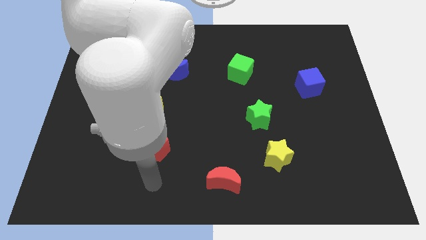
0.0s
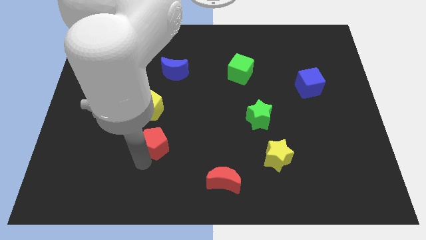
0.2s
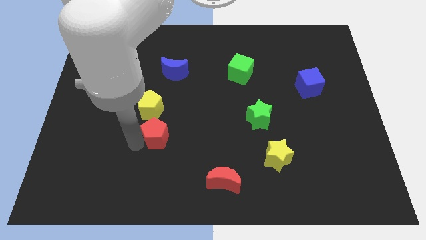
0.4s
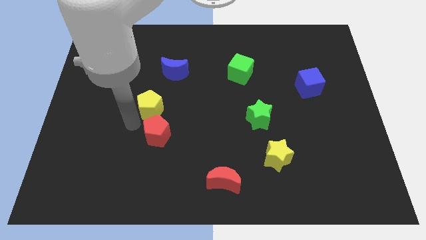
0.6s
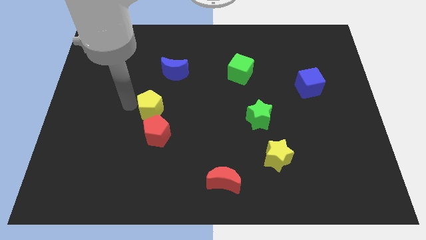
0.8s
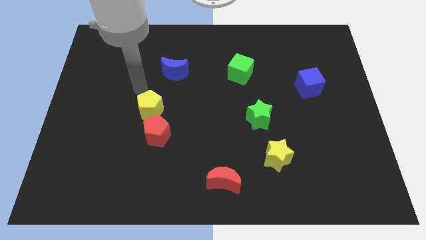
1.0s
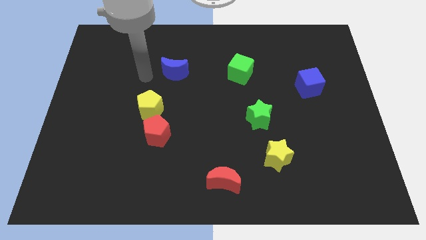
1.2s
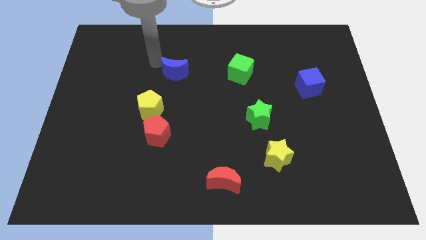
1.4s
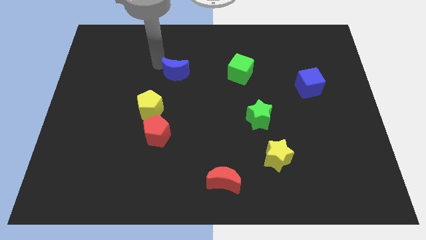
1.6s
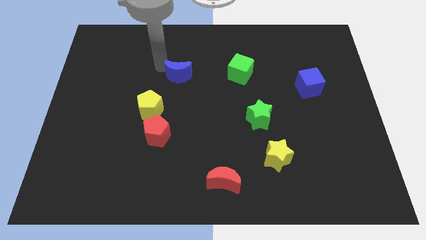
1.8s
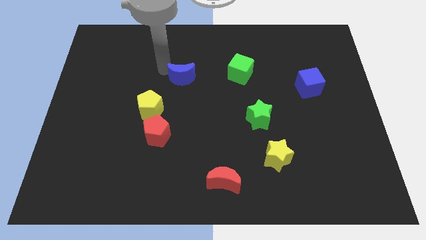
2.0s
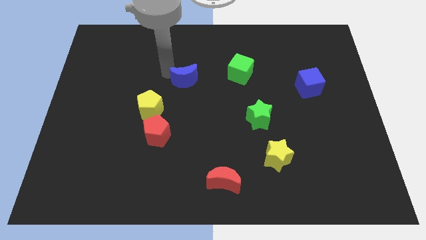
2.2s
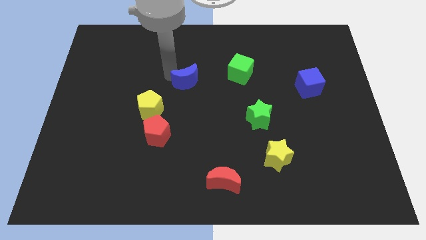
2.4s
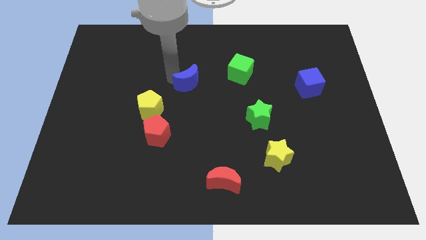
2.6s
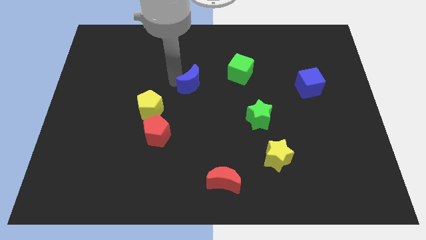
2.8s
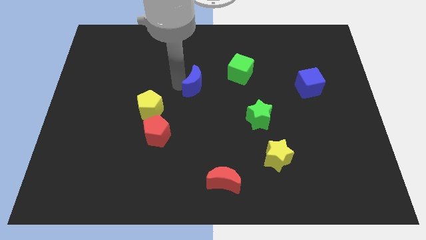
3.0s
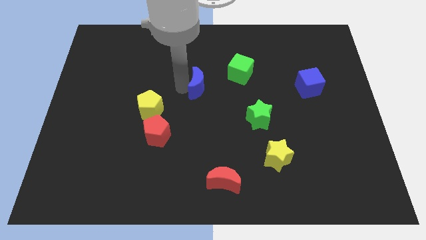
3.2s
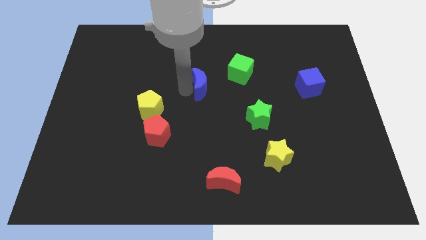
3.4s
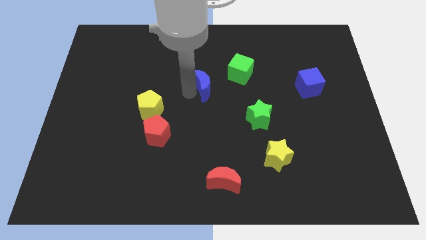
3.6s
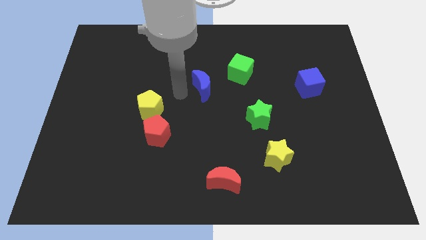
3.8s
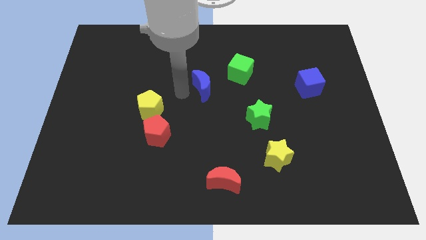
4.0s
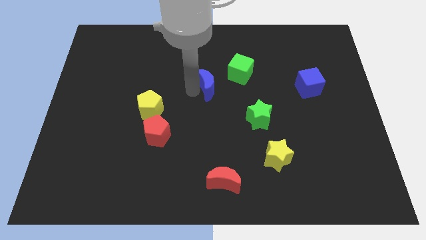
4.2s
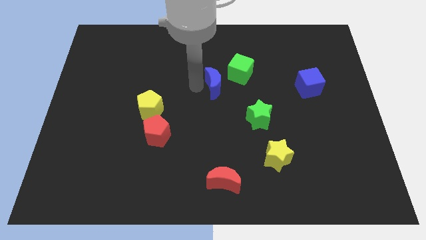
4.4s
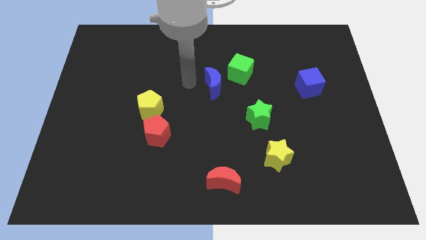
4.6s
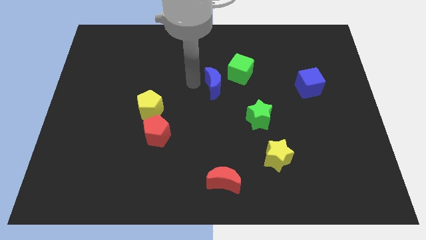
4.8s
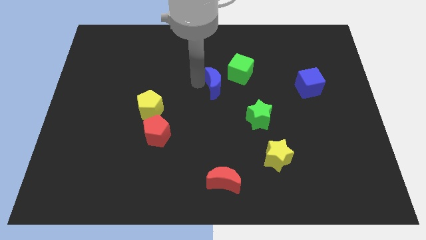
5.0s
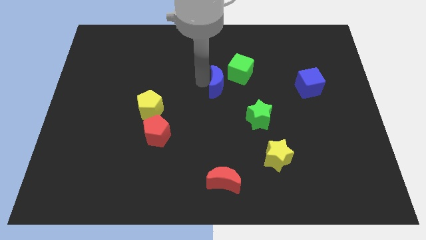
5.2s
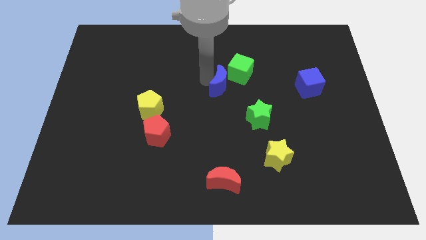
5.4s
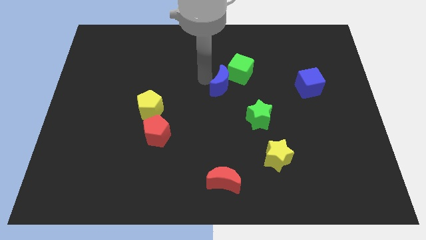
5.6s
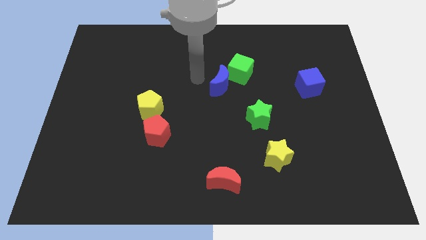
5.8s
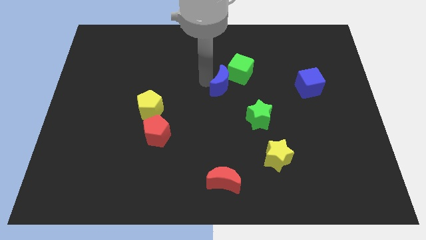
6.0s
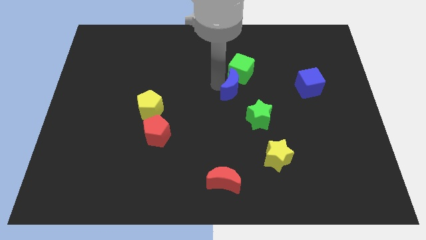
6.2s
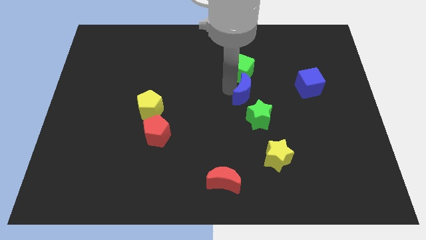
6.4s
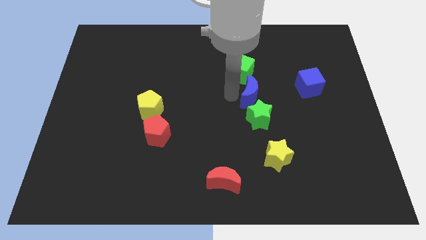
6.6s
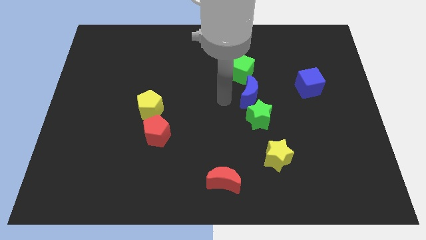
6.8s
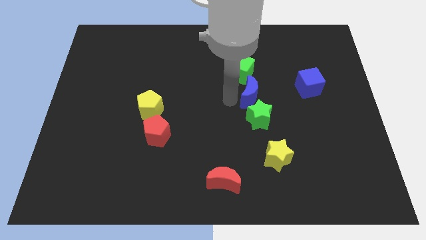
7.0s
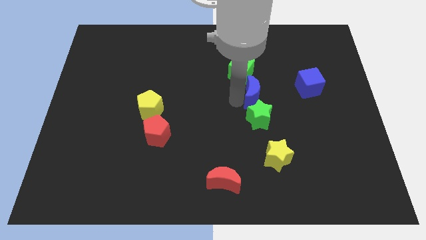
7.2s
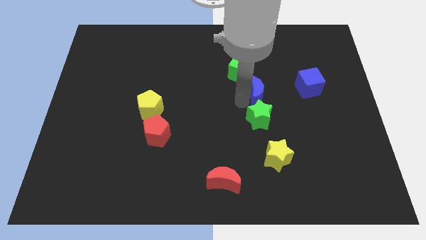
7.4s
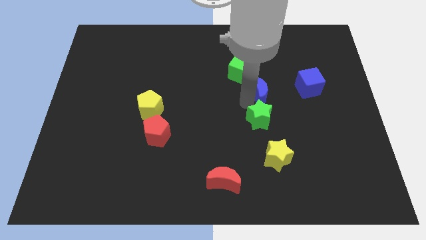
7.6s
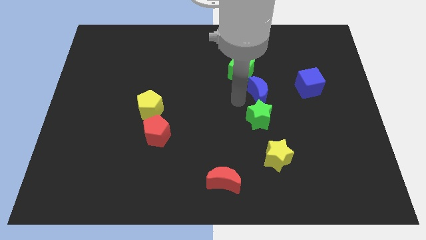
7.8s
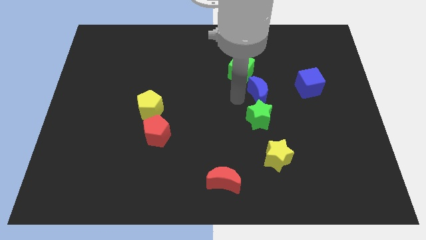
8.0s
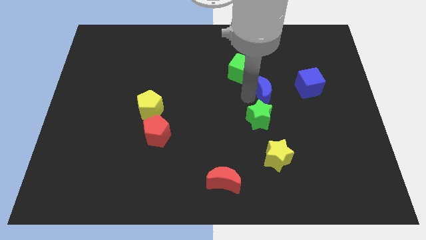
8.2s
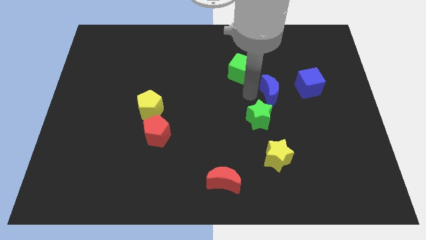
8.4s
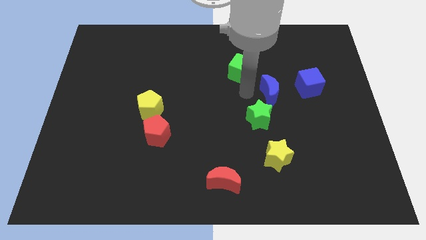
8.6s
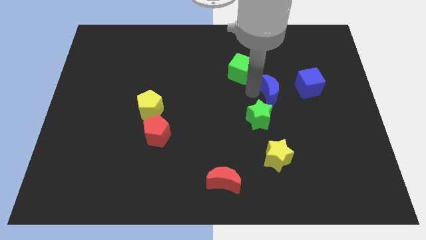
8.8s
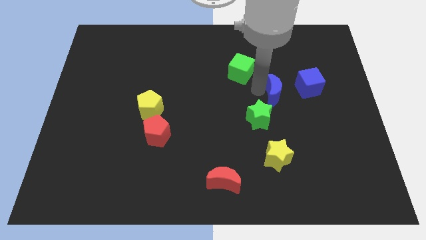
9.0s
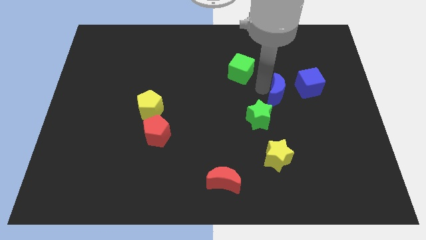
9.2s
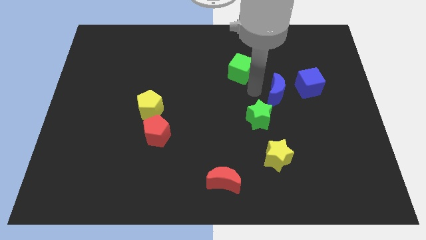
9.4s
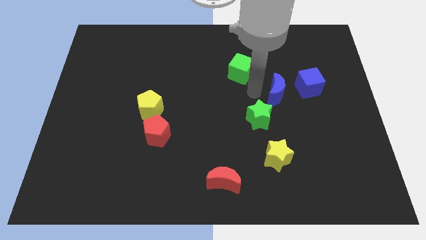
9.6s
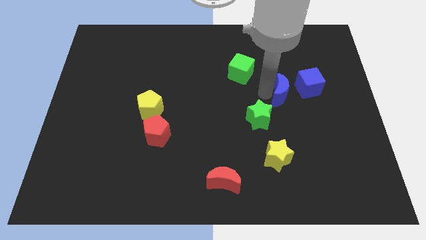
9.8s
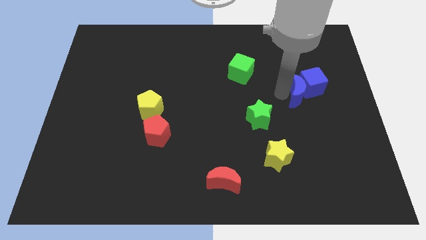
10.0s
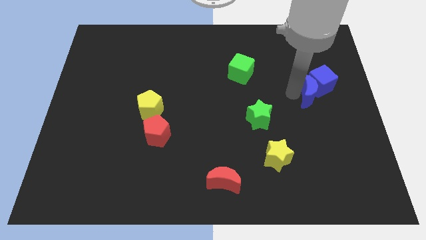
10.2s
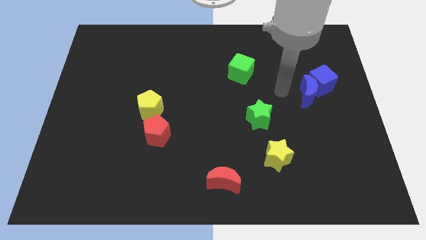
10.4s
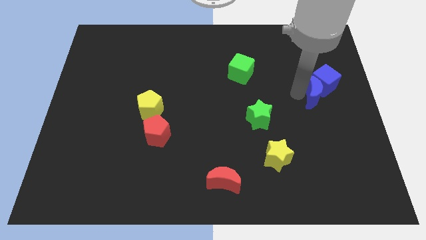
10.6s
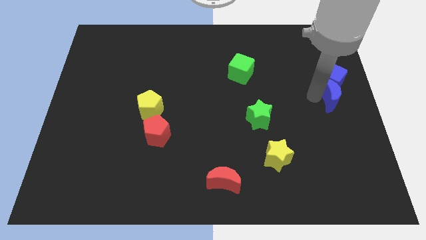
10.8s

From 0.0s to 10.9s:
slide the blue moon to the bottom right side of the blue cube

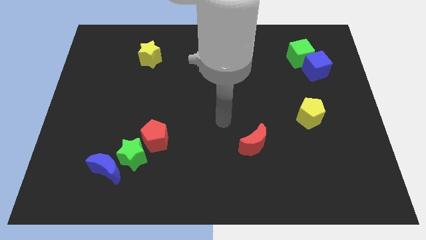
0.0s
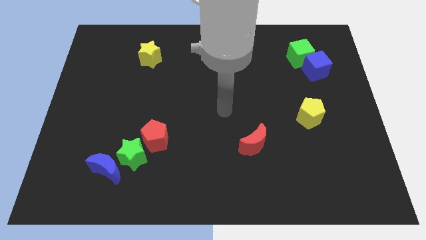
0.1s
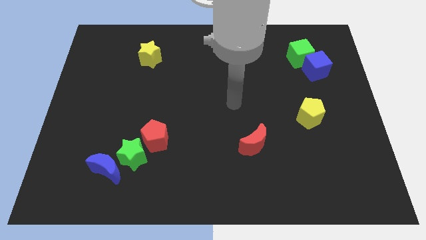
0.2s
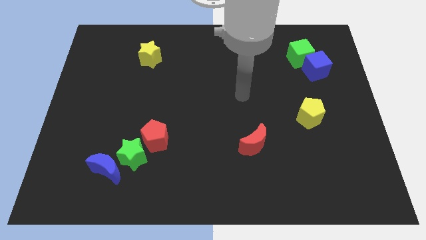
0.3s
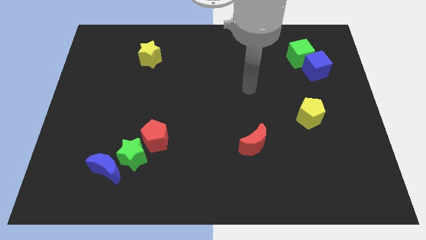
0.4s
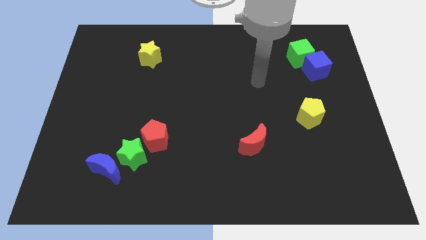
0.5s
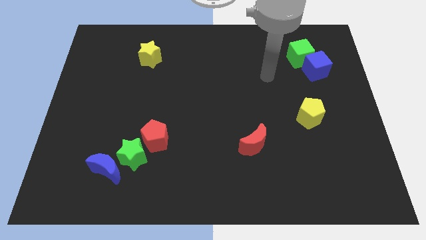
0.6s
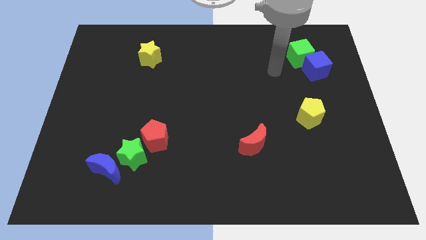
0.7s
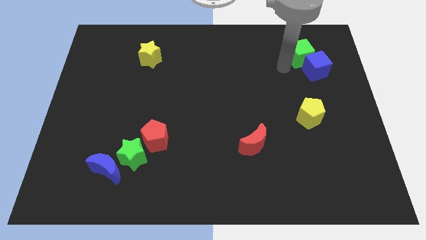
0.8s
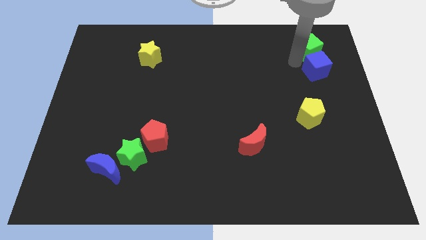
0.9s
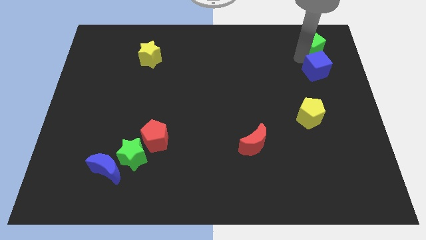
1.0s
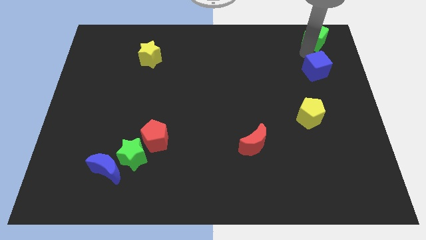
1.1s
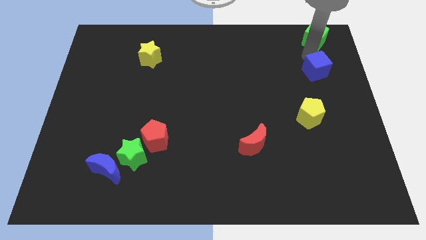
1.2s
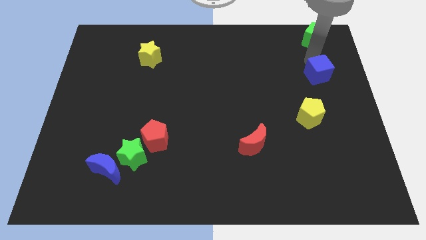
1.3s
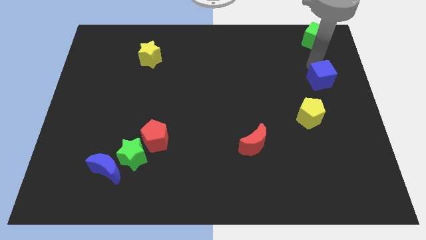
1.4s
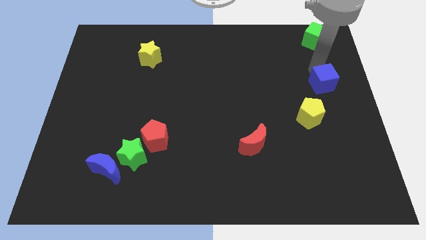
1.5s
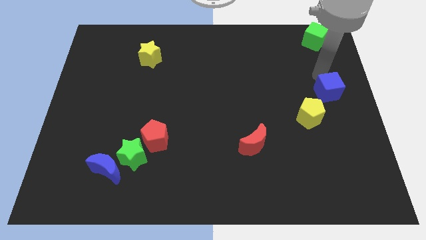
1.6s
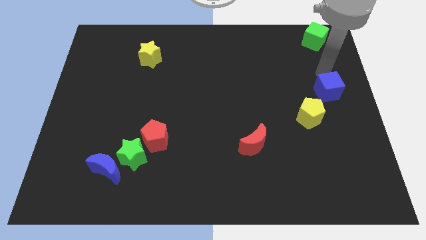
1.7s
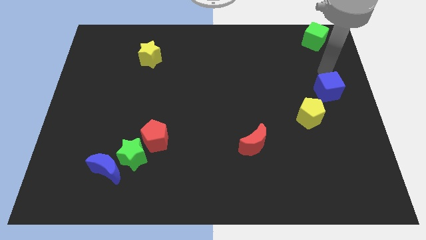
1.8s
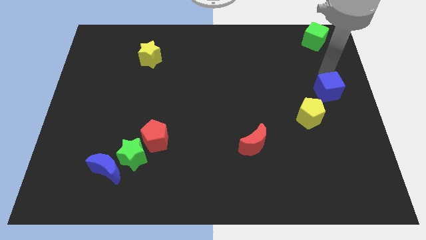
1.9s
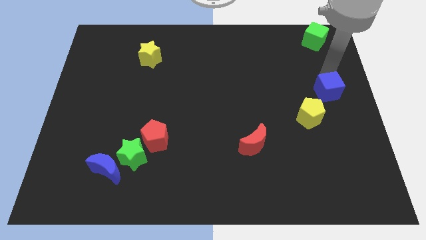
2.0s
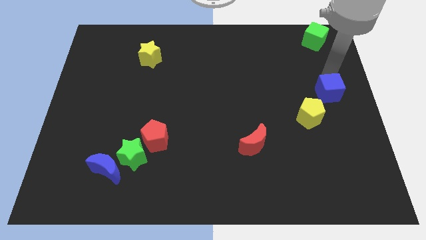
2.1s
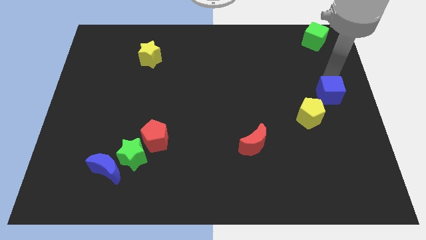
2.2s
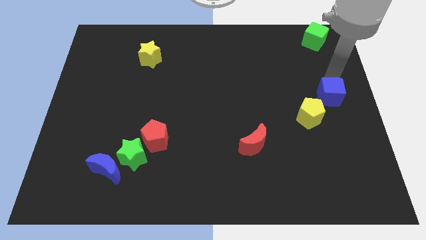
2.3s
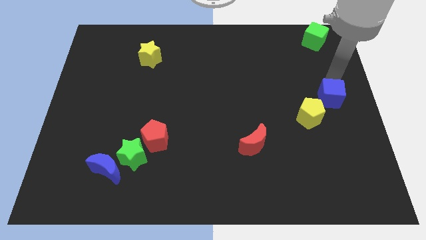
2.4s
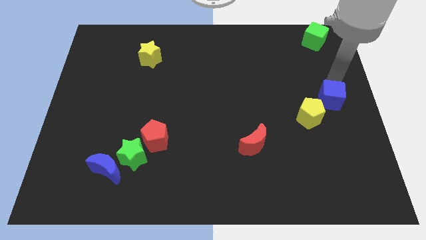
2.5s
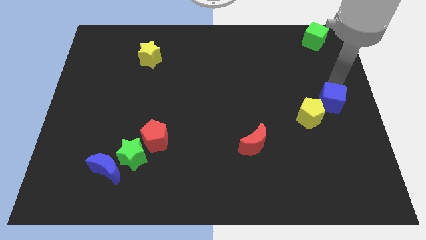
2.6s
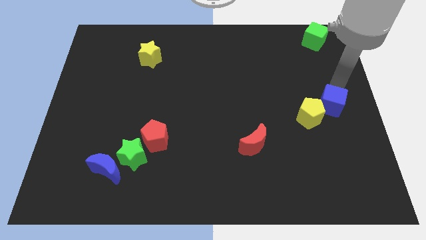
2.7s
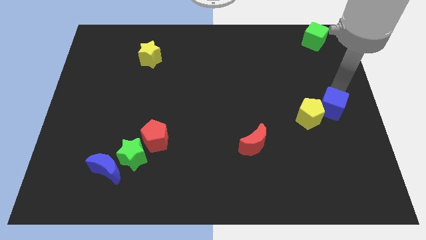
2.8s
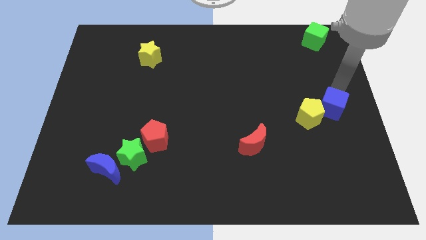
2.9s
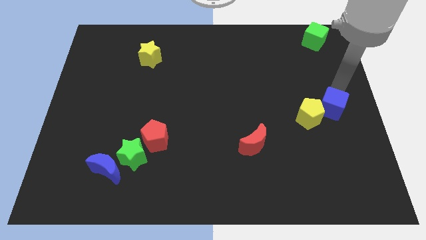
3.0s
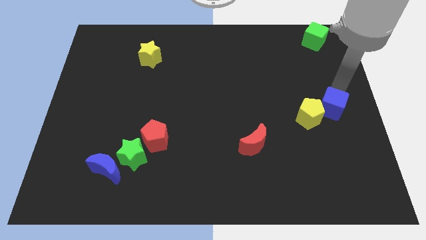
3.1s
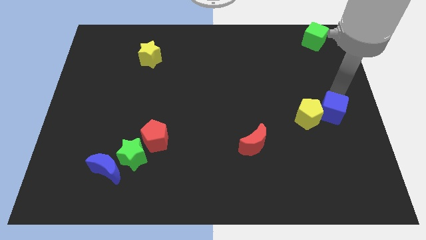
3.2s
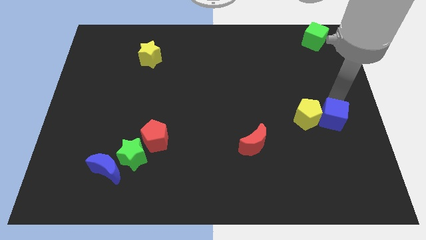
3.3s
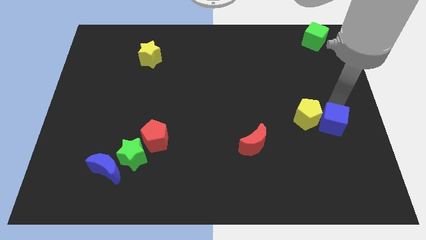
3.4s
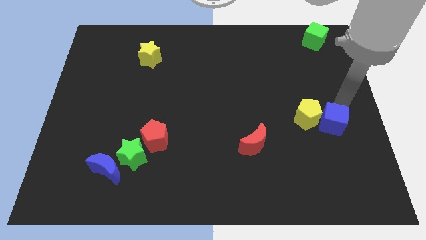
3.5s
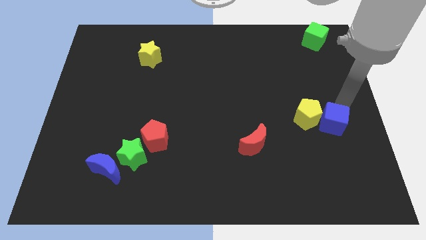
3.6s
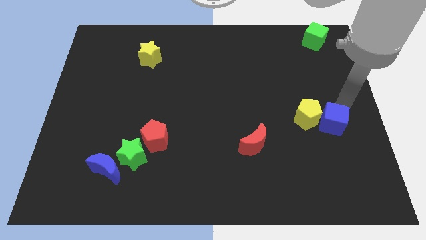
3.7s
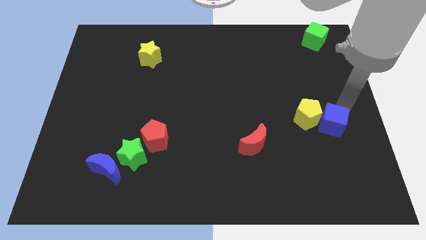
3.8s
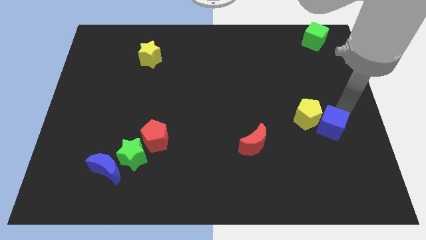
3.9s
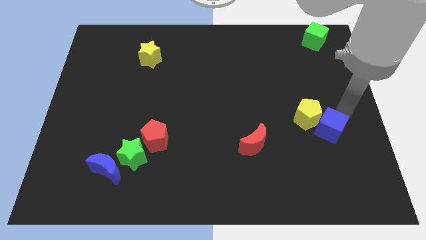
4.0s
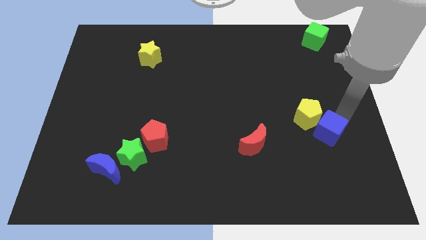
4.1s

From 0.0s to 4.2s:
push the blue cube to the bottom of the yellow pentagon
